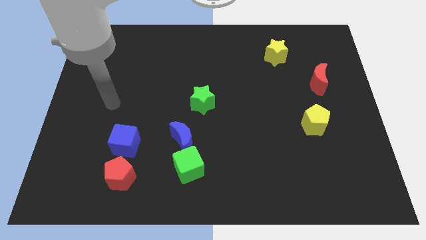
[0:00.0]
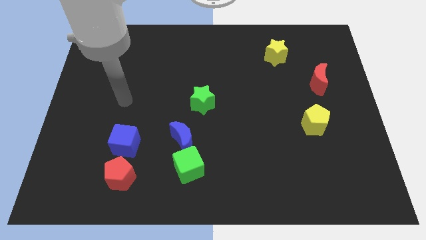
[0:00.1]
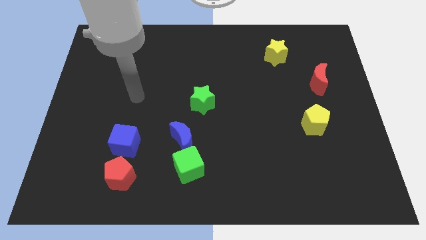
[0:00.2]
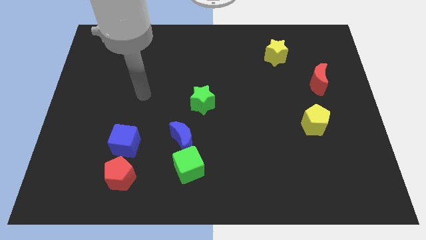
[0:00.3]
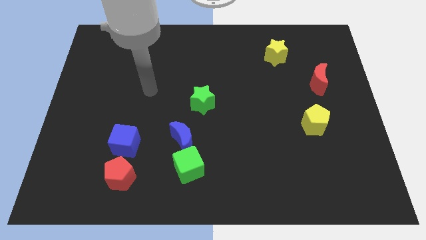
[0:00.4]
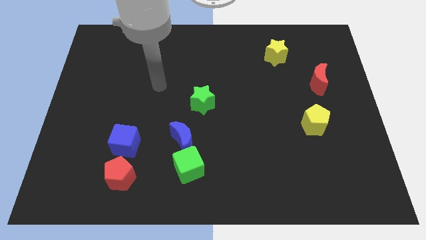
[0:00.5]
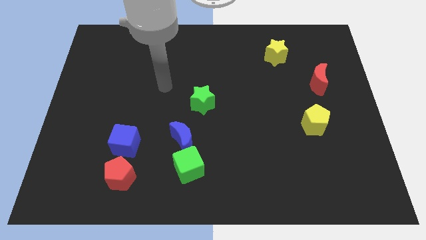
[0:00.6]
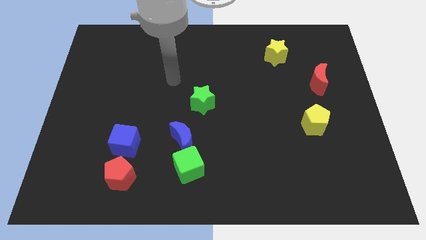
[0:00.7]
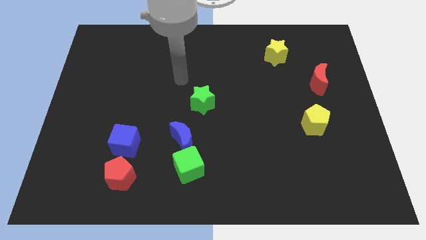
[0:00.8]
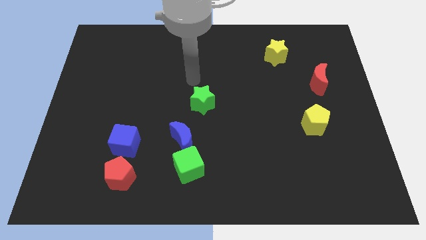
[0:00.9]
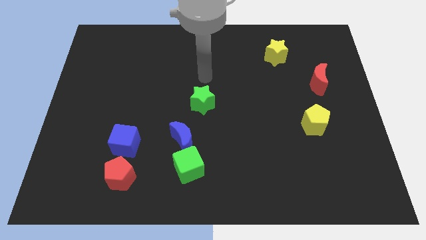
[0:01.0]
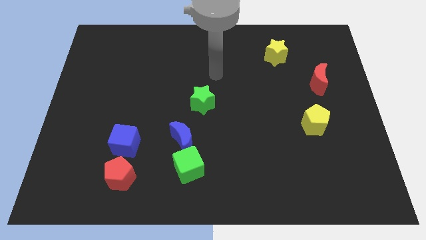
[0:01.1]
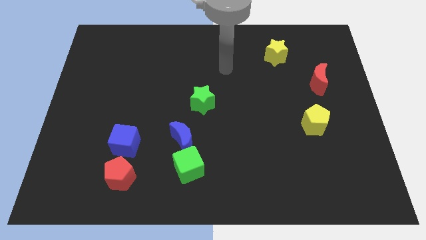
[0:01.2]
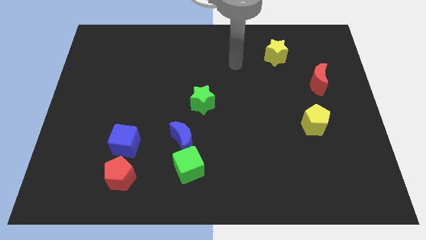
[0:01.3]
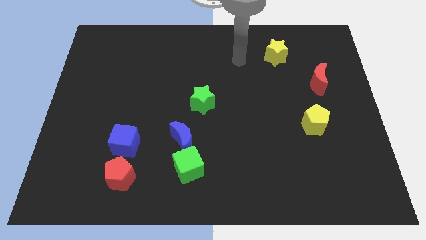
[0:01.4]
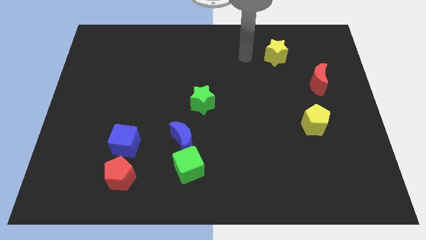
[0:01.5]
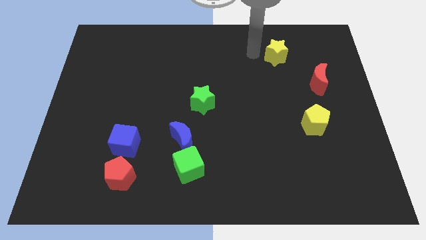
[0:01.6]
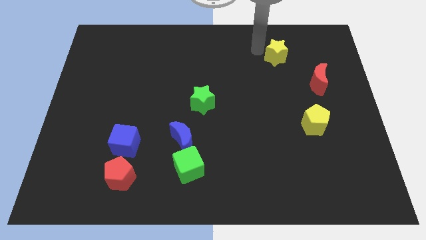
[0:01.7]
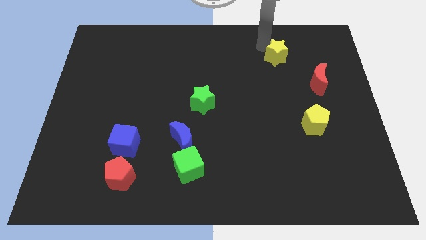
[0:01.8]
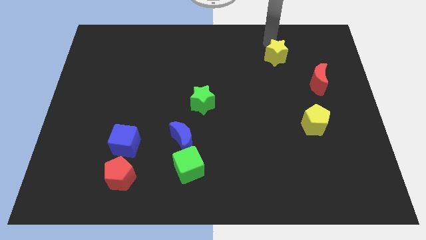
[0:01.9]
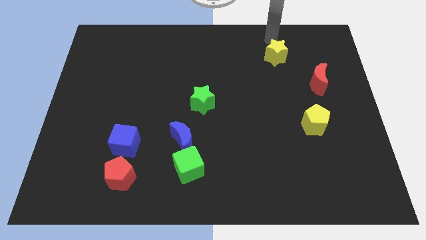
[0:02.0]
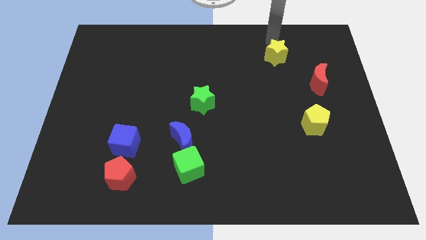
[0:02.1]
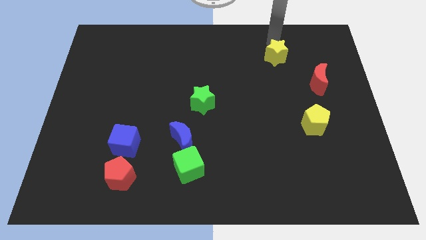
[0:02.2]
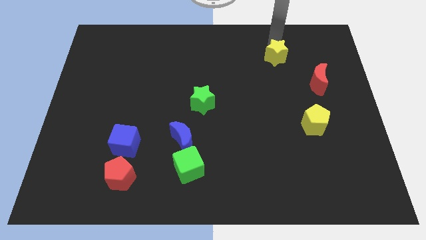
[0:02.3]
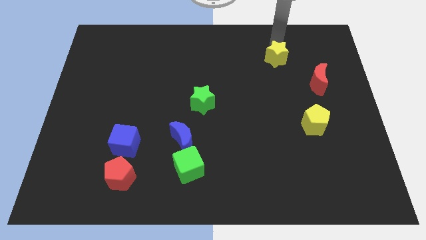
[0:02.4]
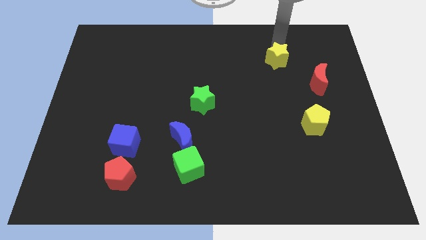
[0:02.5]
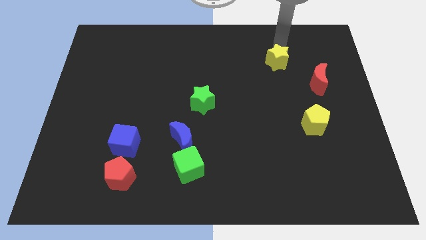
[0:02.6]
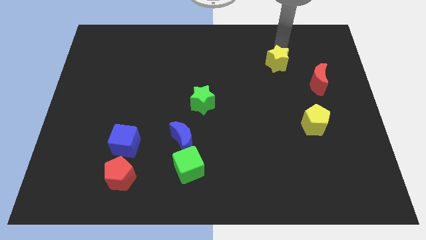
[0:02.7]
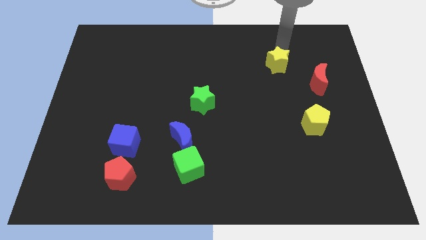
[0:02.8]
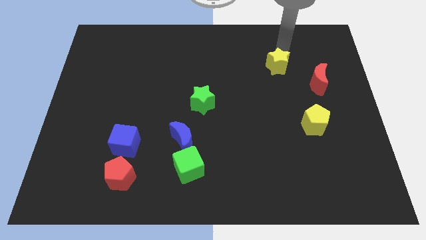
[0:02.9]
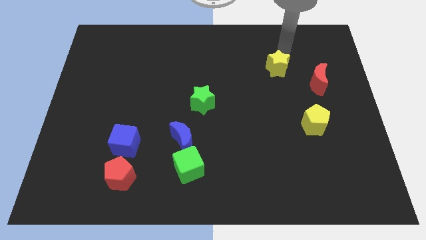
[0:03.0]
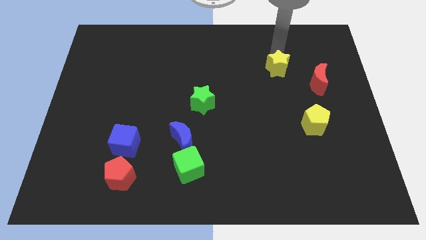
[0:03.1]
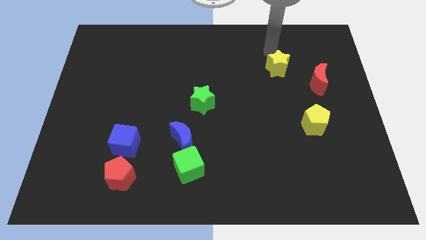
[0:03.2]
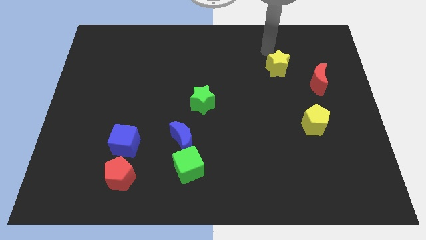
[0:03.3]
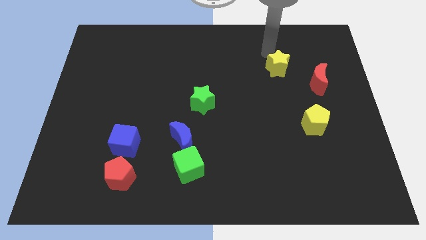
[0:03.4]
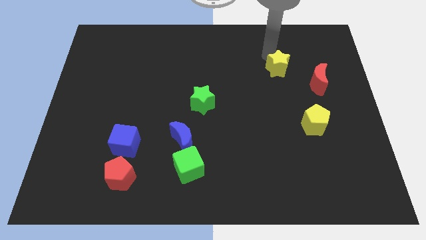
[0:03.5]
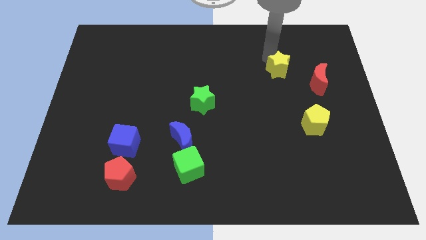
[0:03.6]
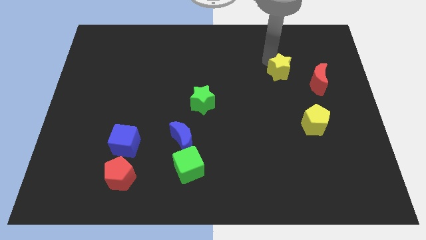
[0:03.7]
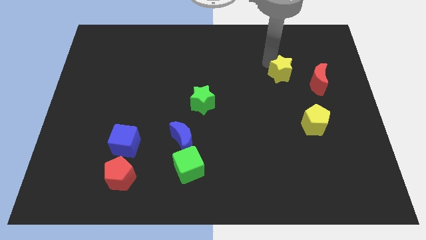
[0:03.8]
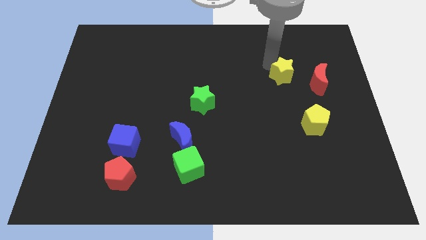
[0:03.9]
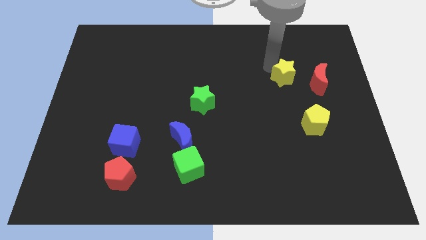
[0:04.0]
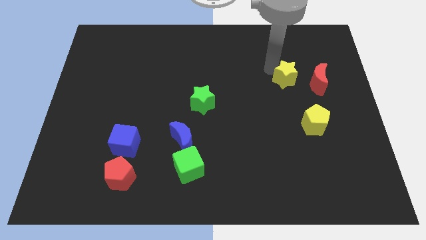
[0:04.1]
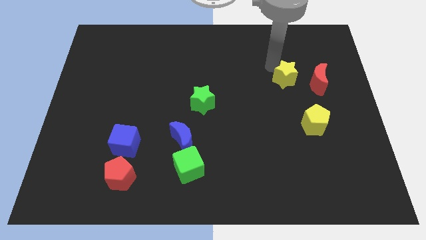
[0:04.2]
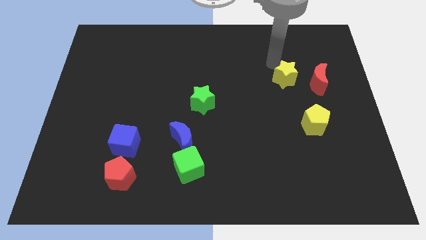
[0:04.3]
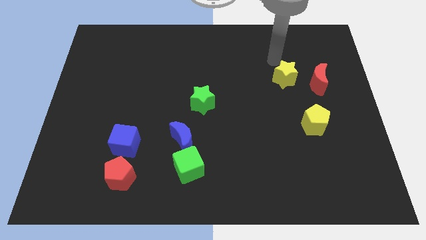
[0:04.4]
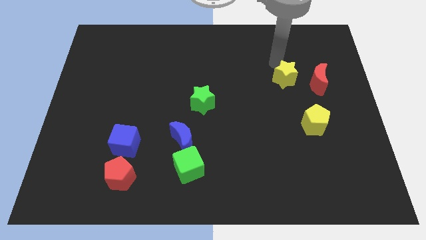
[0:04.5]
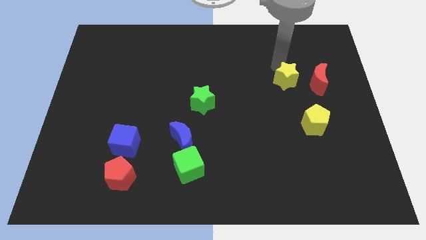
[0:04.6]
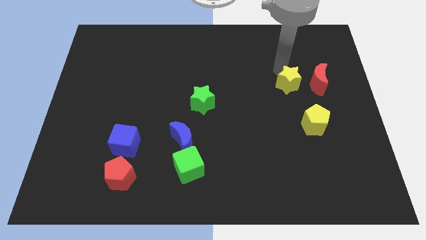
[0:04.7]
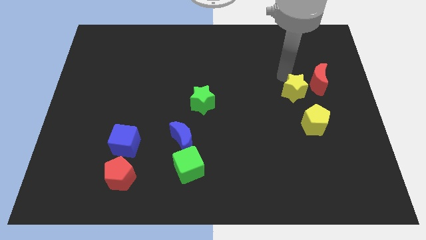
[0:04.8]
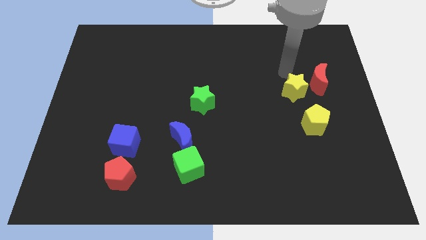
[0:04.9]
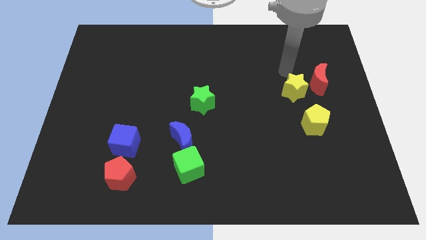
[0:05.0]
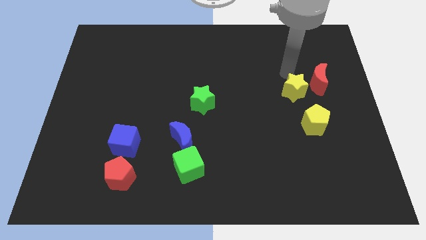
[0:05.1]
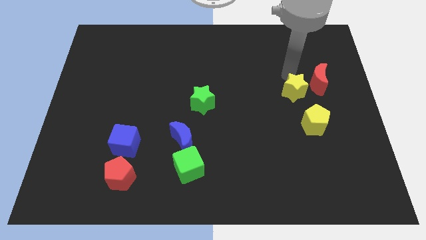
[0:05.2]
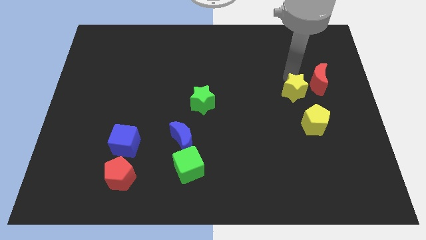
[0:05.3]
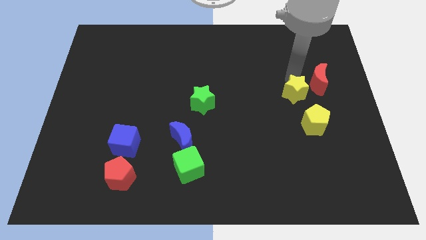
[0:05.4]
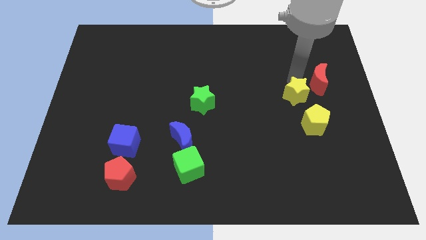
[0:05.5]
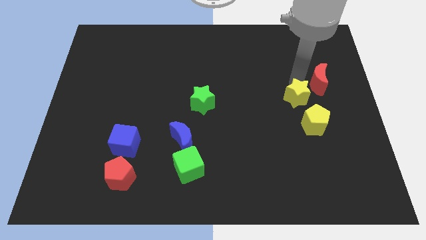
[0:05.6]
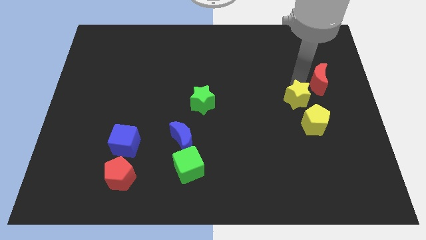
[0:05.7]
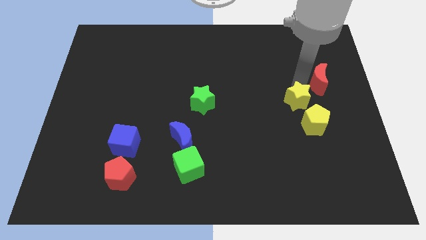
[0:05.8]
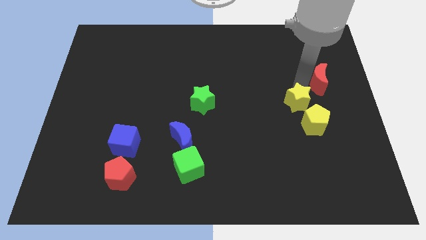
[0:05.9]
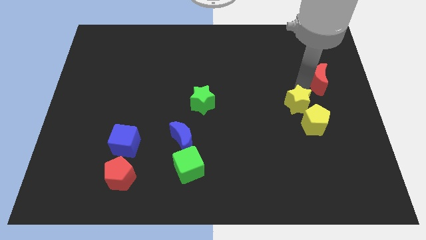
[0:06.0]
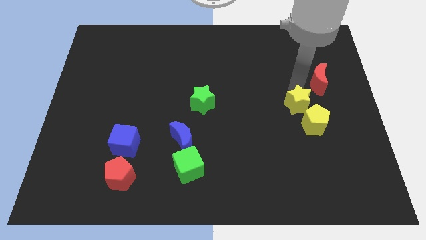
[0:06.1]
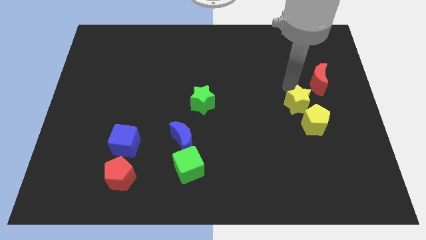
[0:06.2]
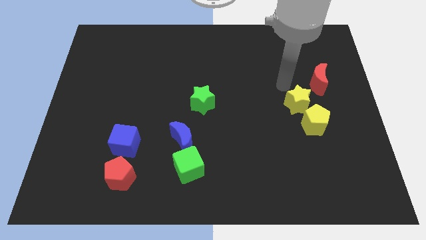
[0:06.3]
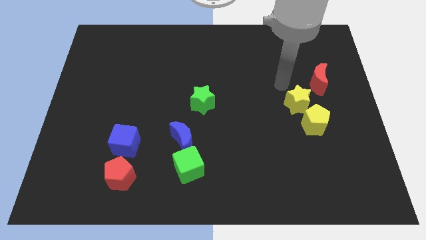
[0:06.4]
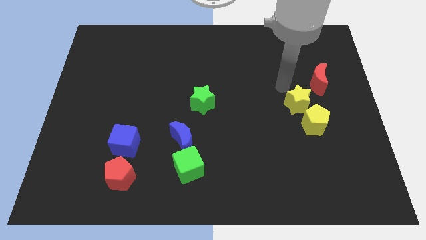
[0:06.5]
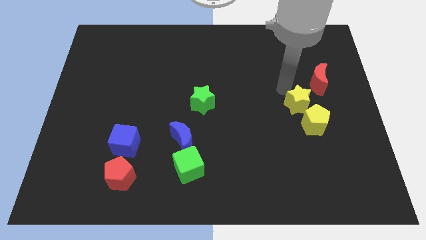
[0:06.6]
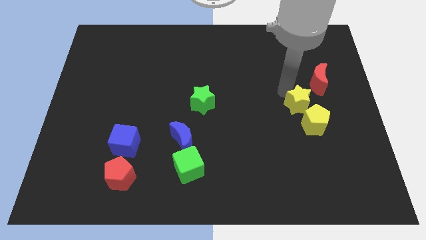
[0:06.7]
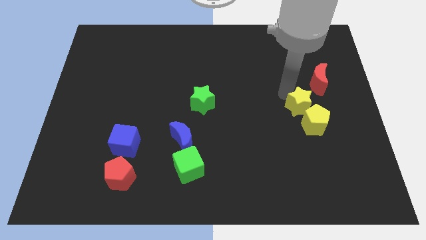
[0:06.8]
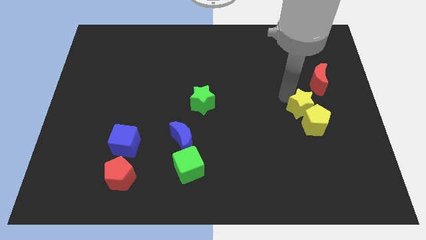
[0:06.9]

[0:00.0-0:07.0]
slide the yellow star towards the yellow pentagon
